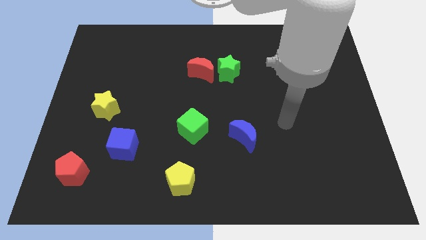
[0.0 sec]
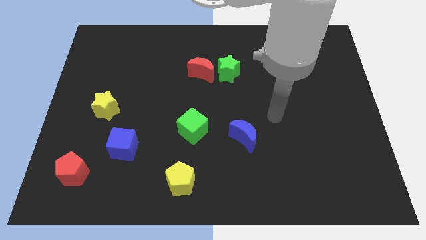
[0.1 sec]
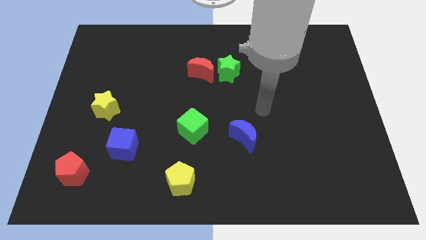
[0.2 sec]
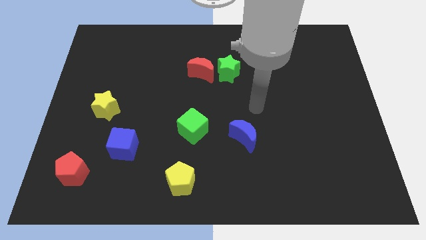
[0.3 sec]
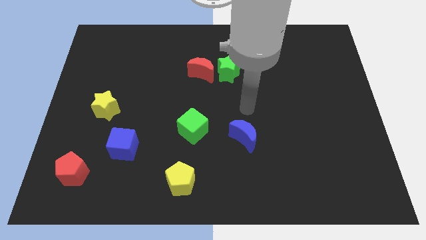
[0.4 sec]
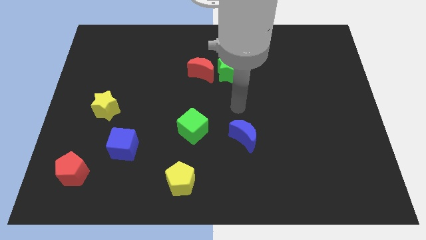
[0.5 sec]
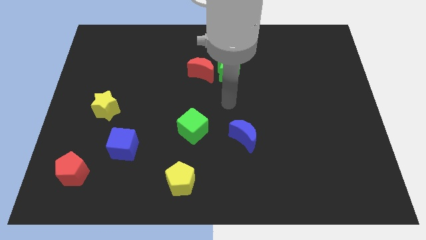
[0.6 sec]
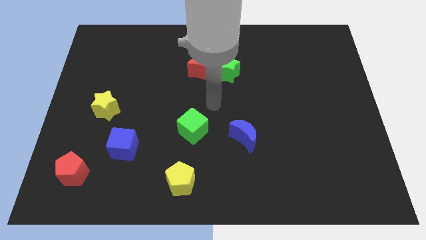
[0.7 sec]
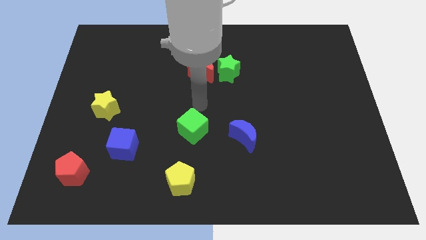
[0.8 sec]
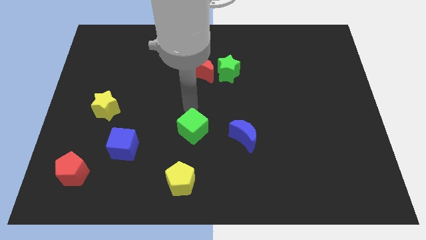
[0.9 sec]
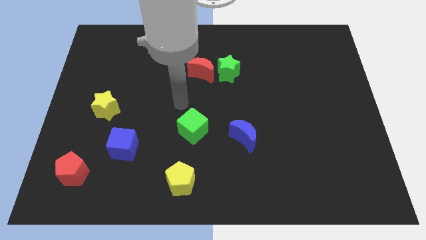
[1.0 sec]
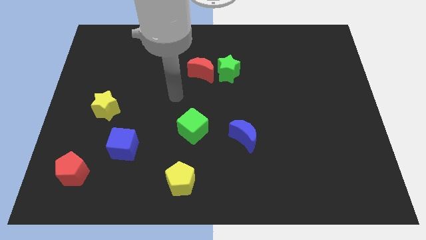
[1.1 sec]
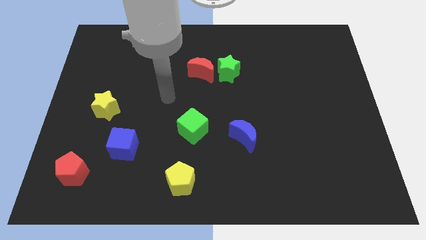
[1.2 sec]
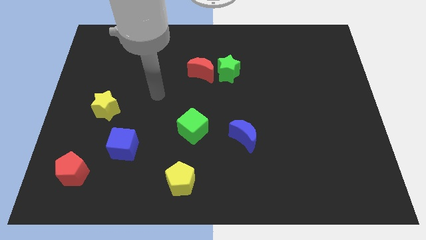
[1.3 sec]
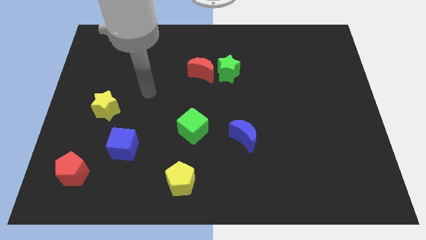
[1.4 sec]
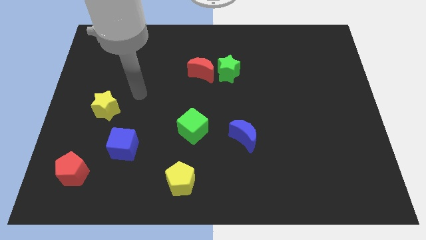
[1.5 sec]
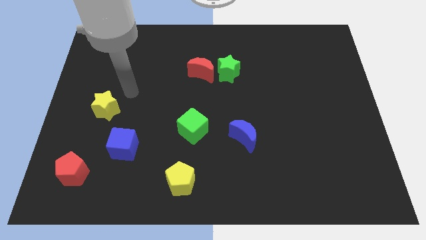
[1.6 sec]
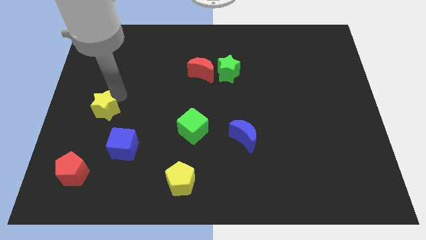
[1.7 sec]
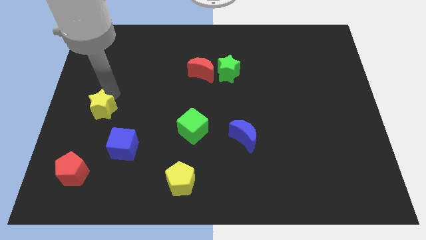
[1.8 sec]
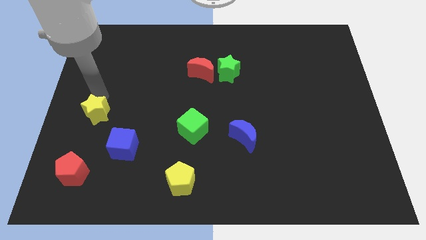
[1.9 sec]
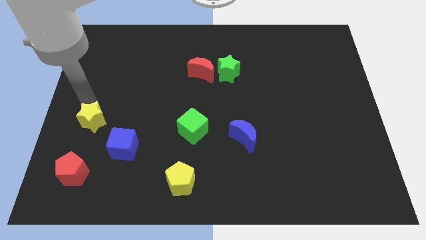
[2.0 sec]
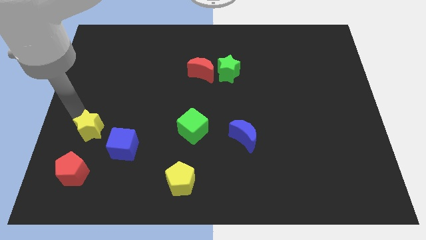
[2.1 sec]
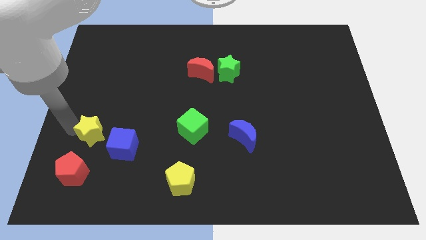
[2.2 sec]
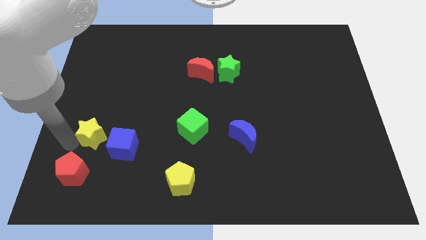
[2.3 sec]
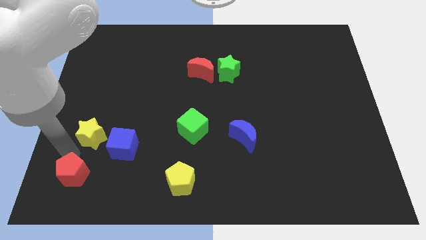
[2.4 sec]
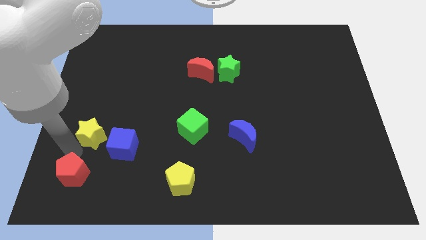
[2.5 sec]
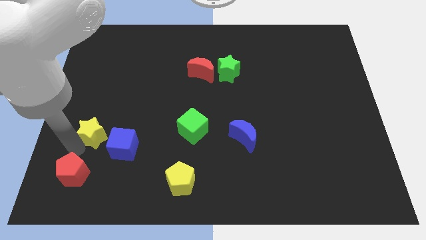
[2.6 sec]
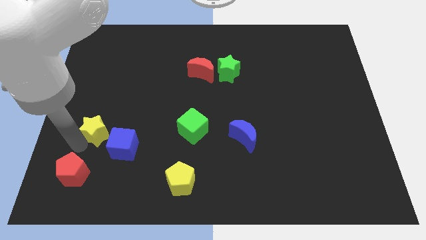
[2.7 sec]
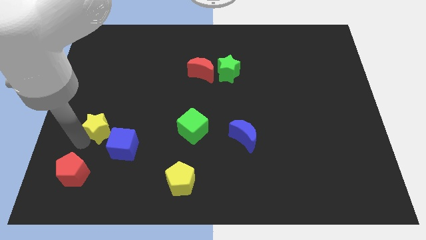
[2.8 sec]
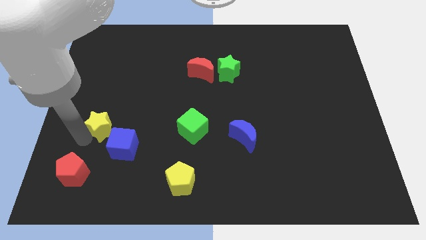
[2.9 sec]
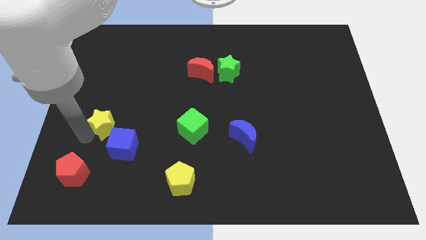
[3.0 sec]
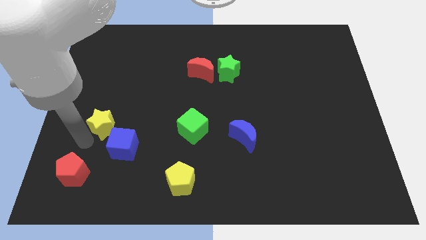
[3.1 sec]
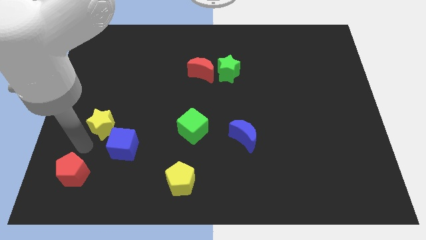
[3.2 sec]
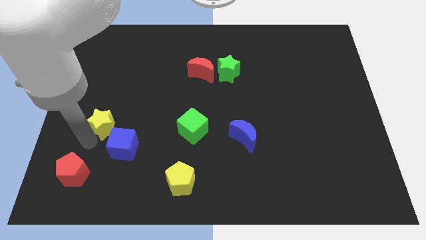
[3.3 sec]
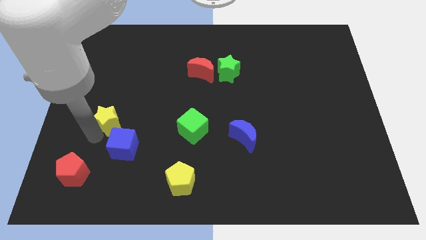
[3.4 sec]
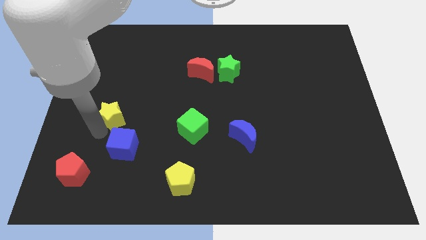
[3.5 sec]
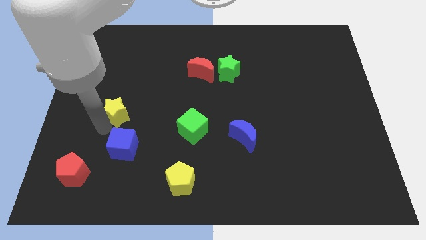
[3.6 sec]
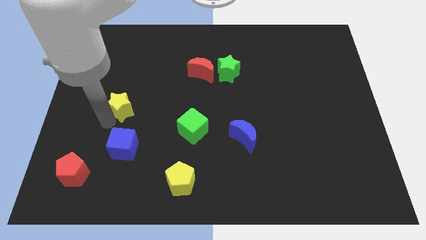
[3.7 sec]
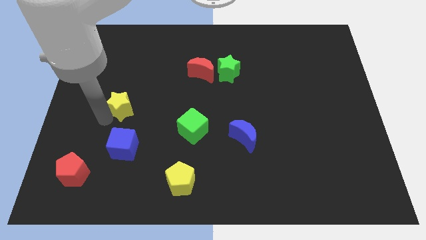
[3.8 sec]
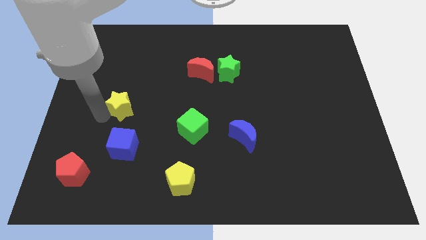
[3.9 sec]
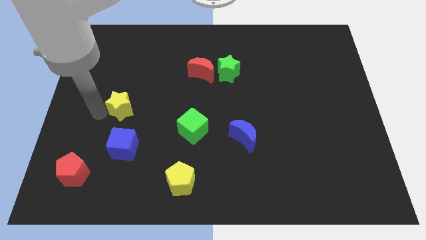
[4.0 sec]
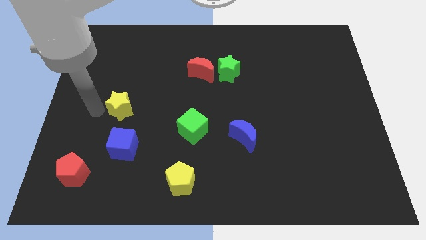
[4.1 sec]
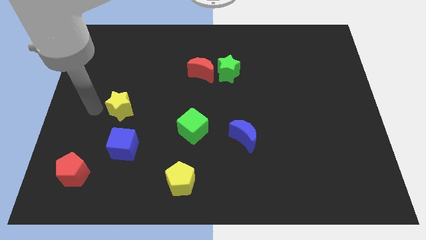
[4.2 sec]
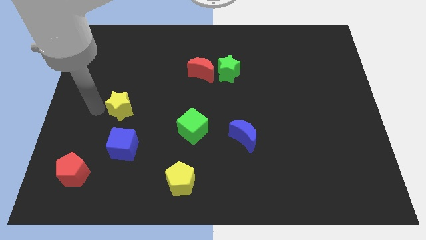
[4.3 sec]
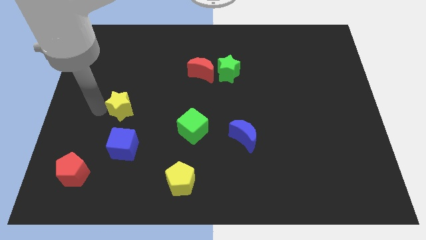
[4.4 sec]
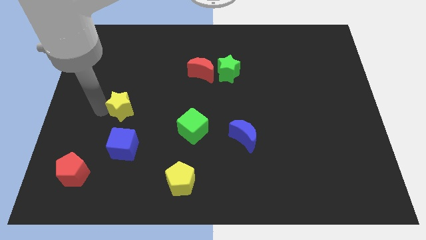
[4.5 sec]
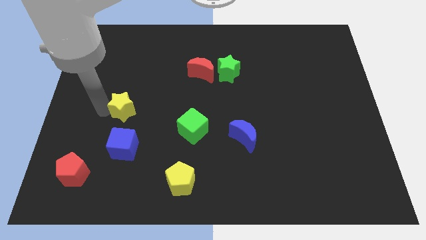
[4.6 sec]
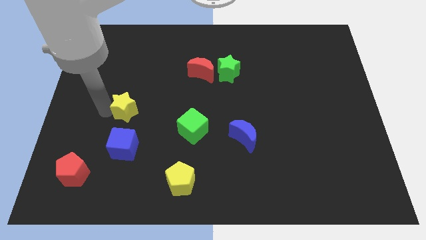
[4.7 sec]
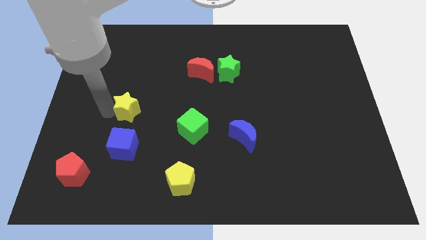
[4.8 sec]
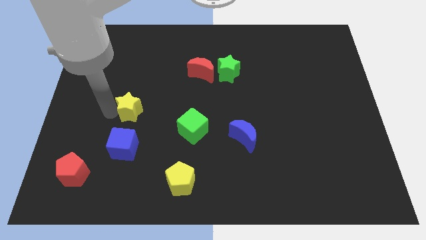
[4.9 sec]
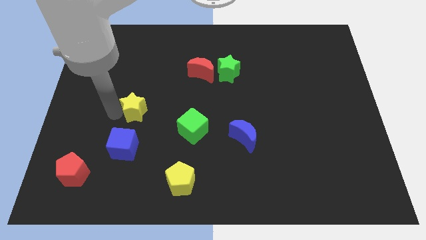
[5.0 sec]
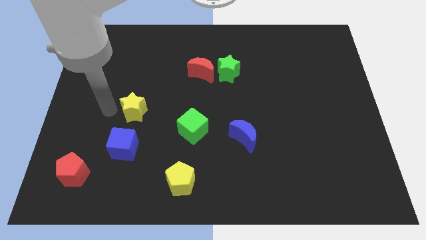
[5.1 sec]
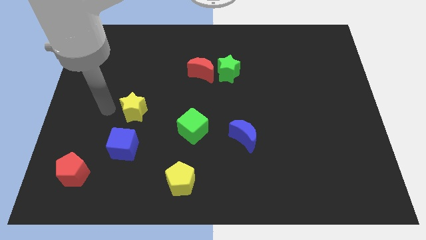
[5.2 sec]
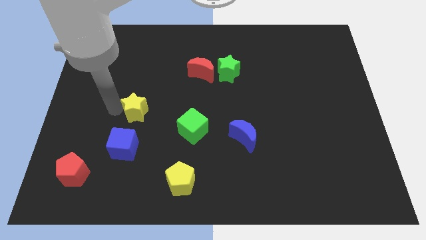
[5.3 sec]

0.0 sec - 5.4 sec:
slide the yellow star right a little bit

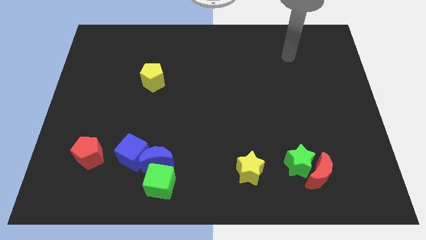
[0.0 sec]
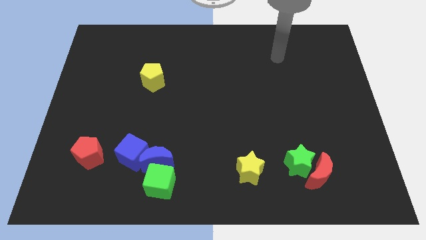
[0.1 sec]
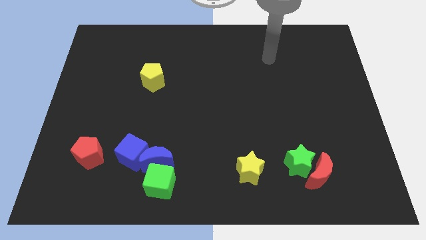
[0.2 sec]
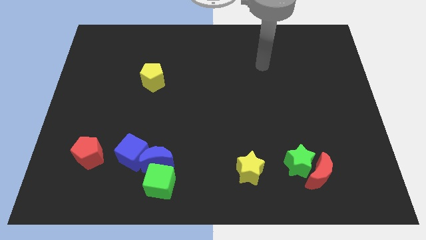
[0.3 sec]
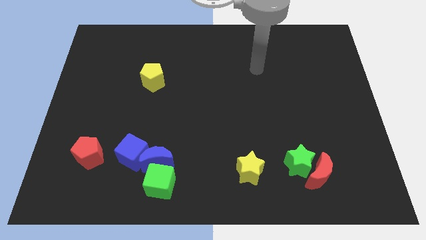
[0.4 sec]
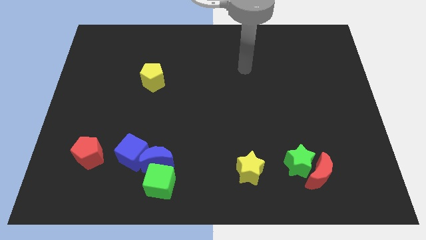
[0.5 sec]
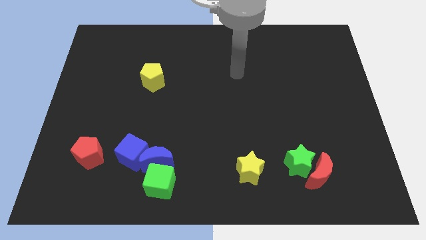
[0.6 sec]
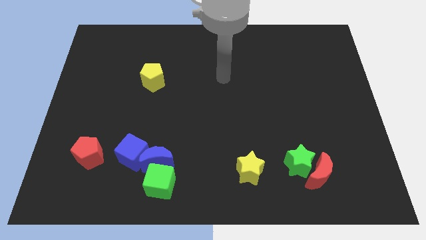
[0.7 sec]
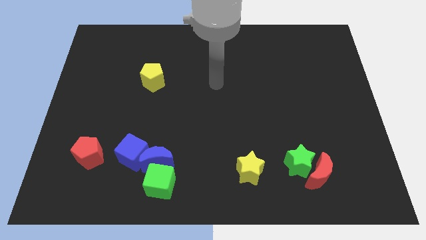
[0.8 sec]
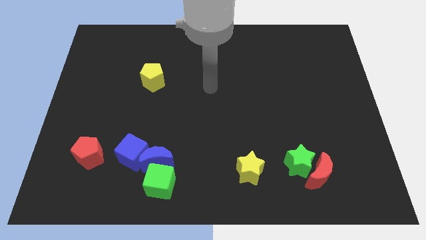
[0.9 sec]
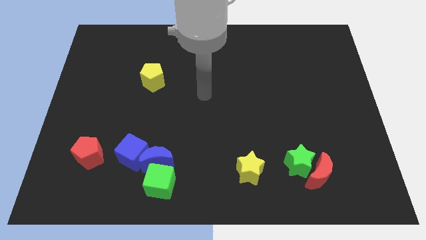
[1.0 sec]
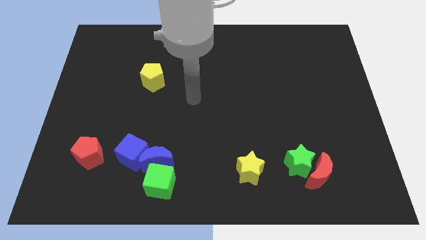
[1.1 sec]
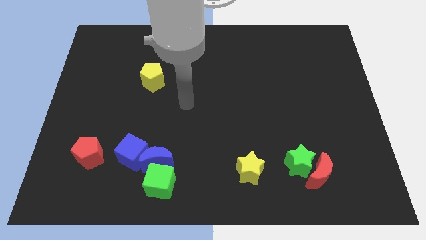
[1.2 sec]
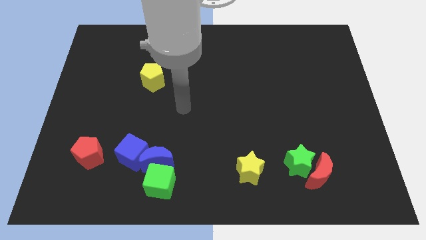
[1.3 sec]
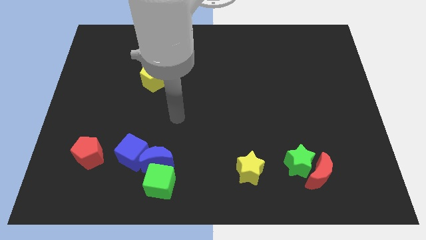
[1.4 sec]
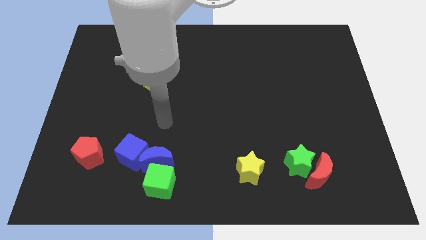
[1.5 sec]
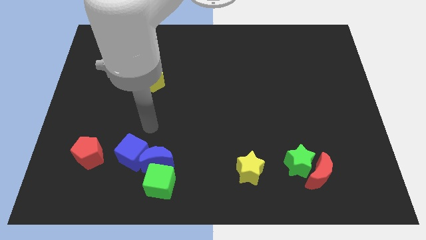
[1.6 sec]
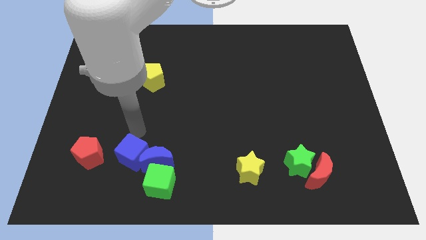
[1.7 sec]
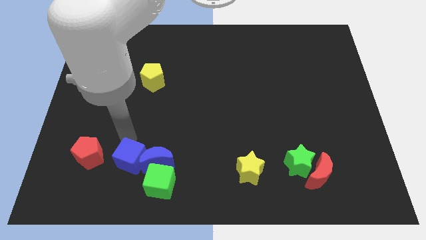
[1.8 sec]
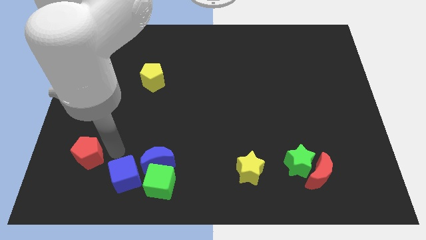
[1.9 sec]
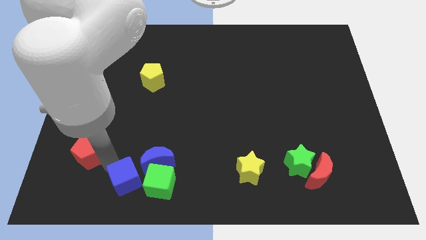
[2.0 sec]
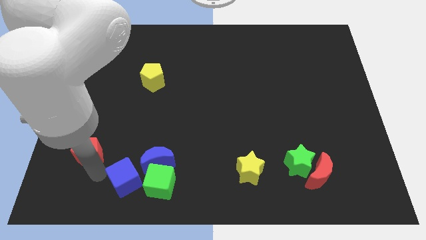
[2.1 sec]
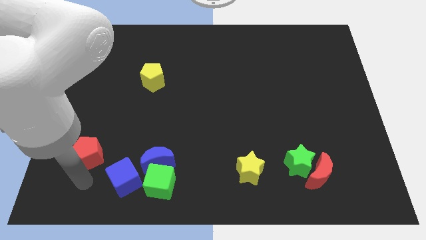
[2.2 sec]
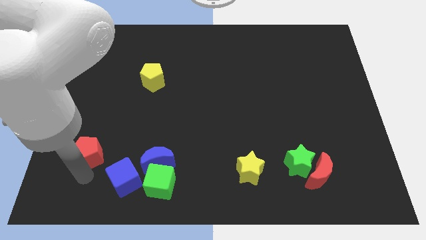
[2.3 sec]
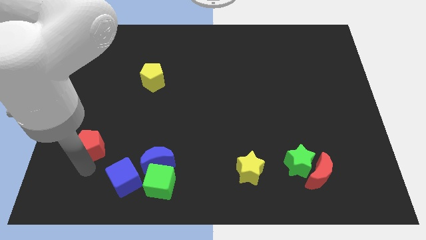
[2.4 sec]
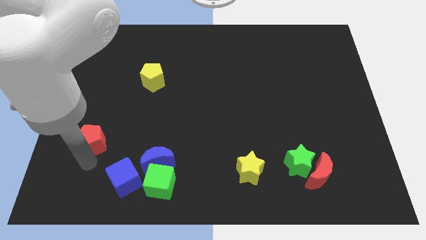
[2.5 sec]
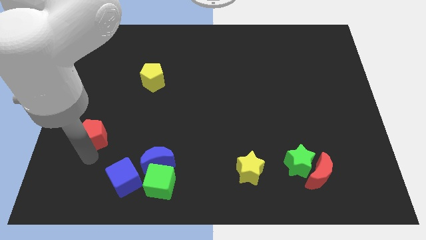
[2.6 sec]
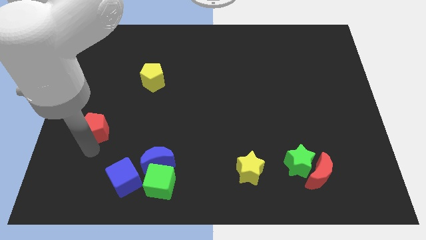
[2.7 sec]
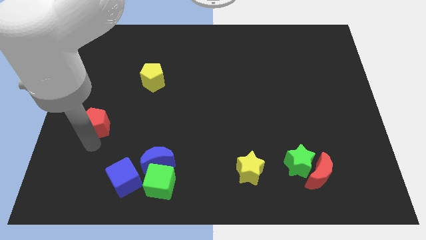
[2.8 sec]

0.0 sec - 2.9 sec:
slide the red pentagon a little bit up
